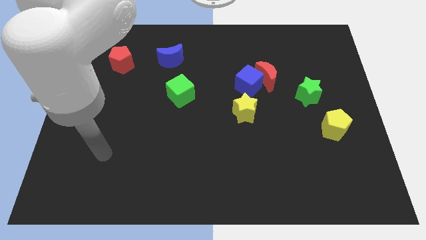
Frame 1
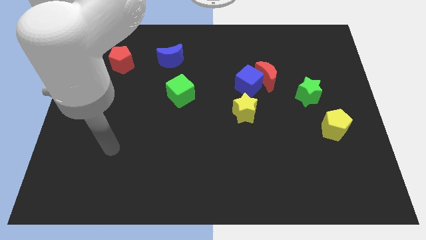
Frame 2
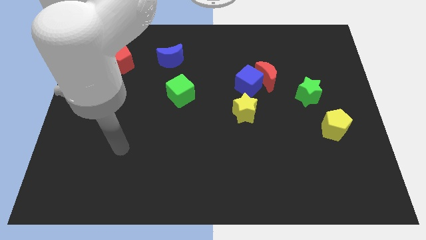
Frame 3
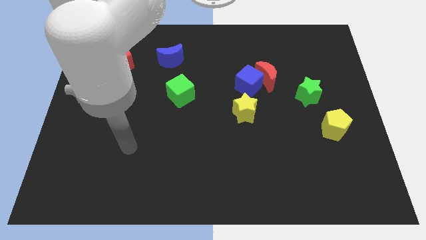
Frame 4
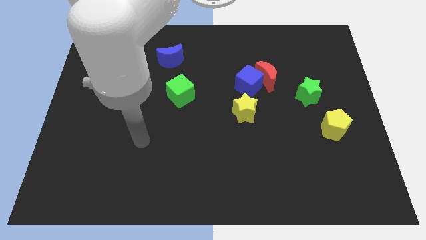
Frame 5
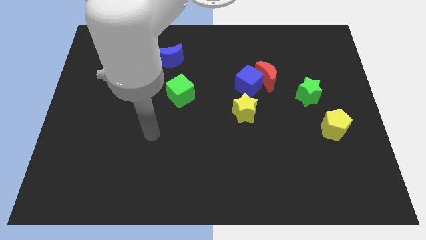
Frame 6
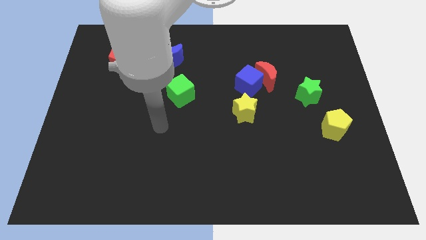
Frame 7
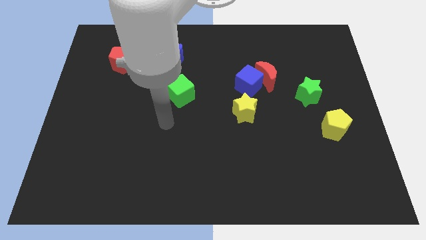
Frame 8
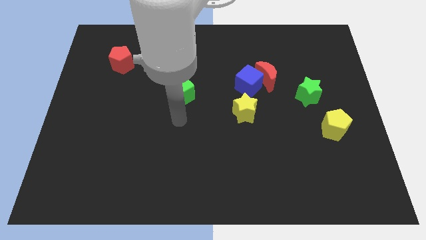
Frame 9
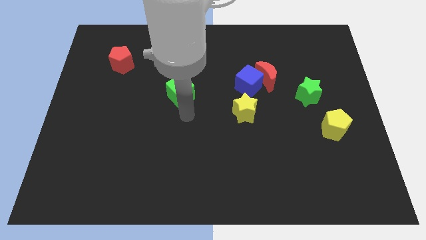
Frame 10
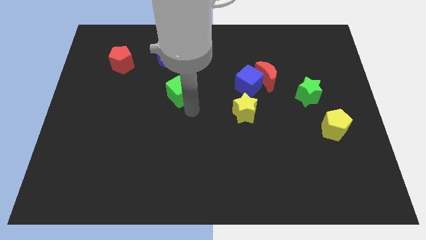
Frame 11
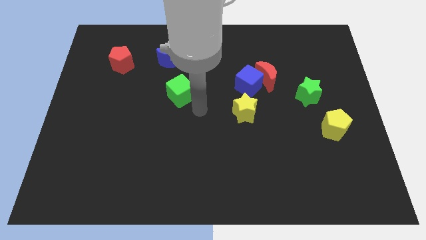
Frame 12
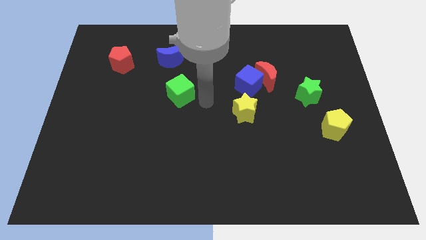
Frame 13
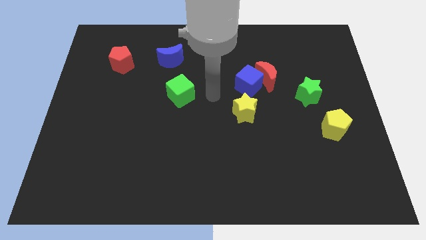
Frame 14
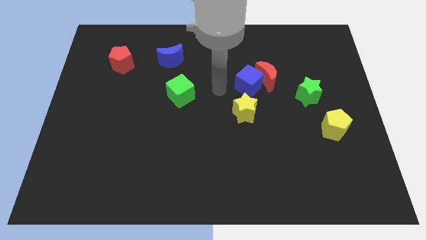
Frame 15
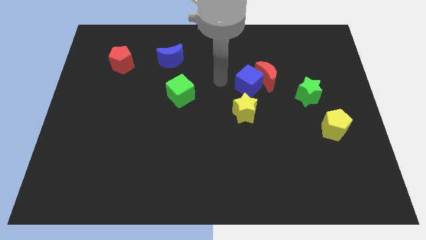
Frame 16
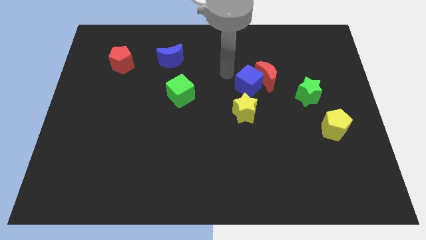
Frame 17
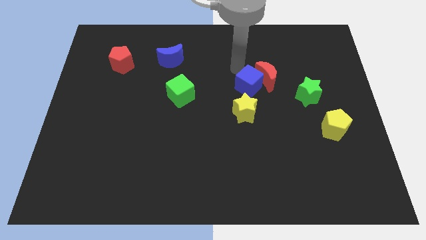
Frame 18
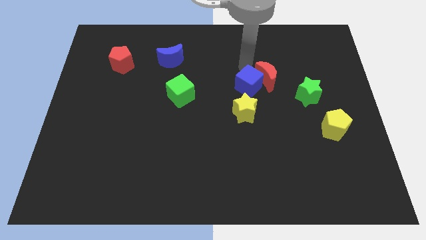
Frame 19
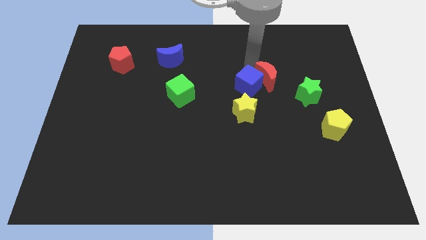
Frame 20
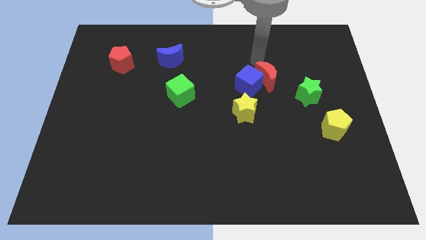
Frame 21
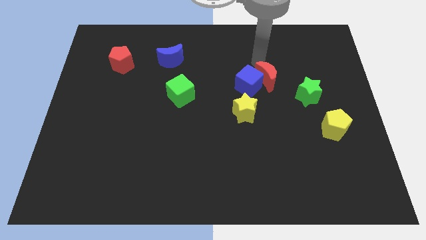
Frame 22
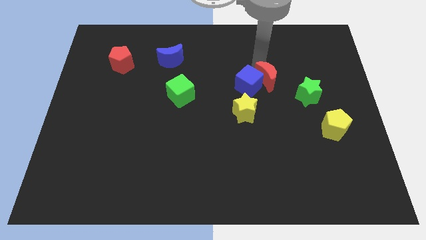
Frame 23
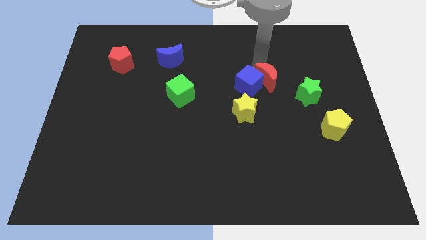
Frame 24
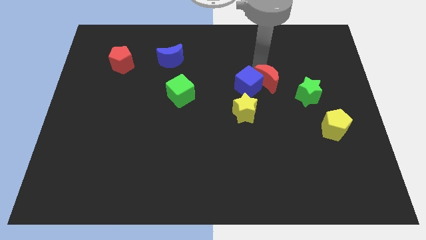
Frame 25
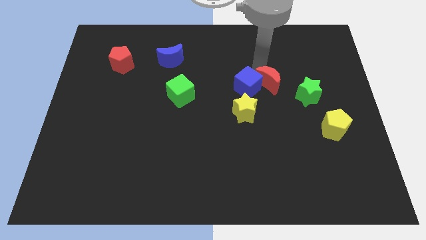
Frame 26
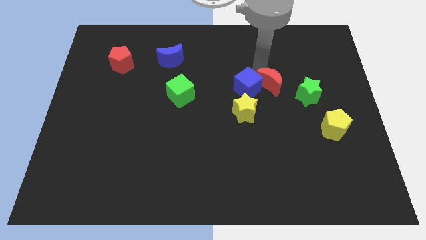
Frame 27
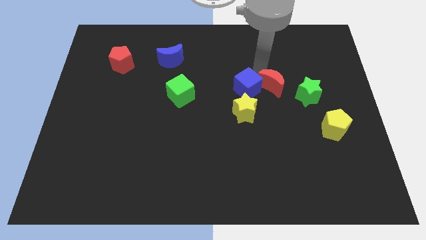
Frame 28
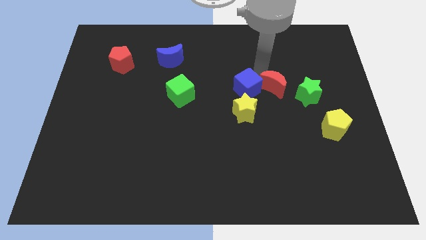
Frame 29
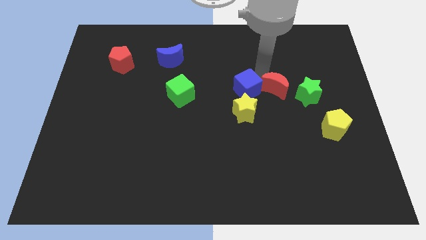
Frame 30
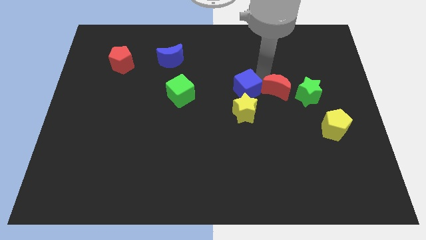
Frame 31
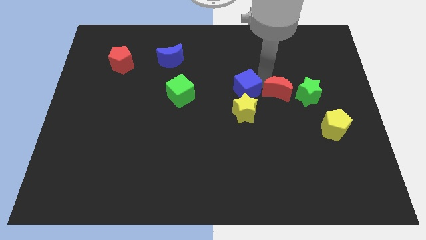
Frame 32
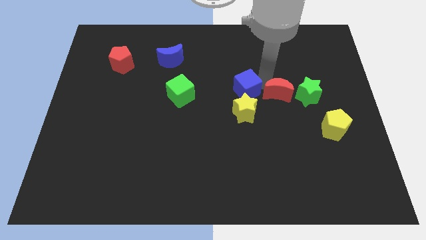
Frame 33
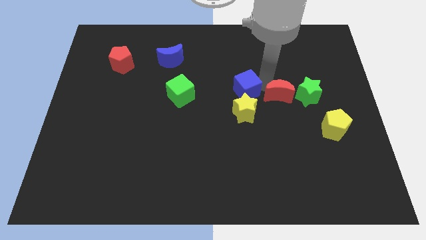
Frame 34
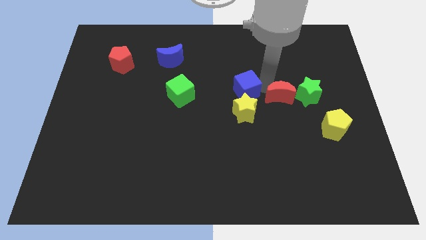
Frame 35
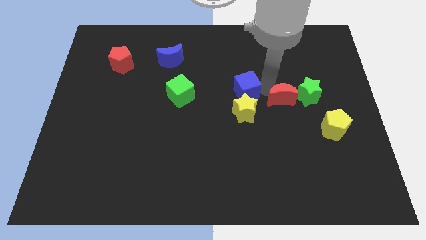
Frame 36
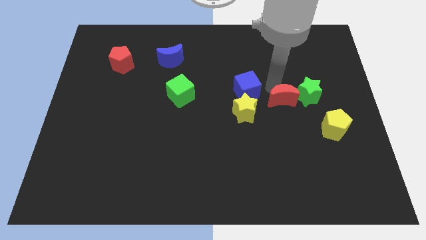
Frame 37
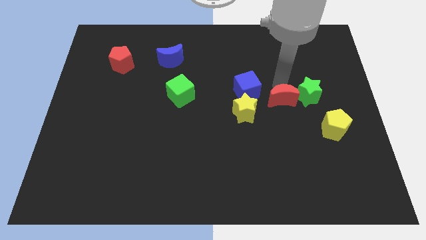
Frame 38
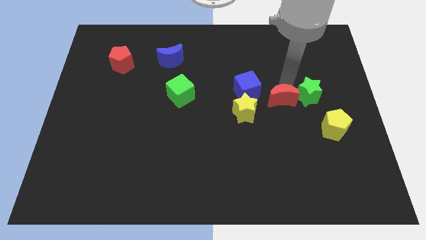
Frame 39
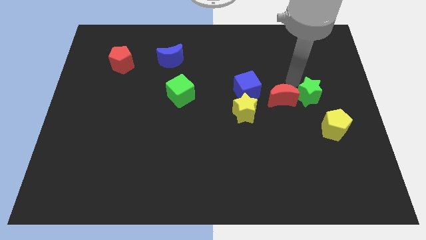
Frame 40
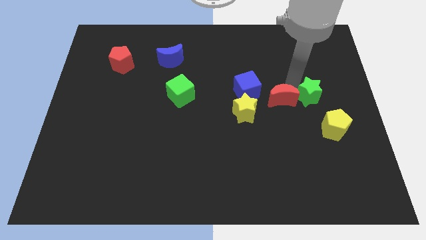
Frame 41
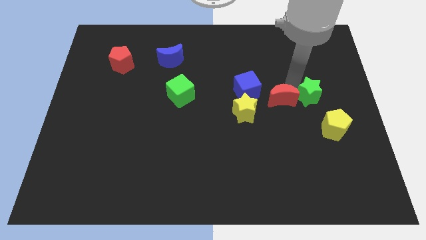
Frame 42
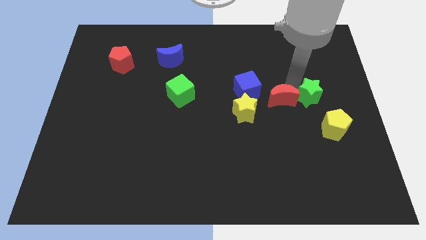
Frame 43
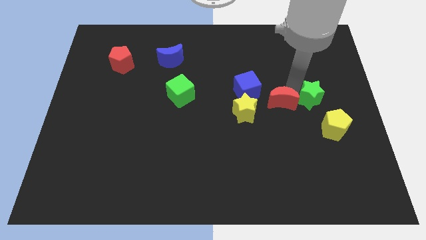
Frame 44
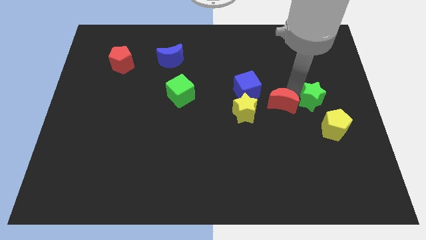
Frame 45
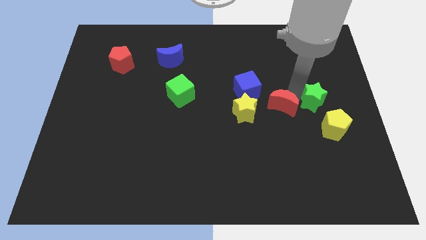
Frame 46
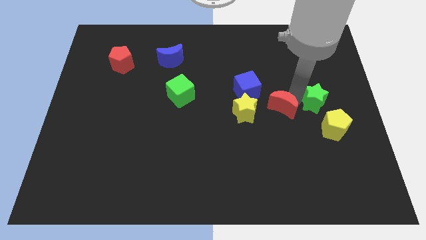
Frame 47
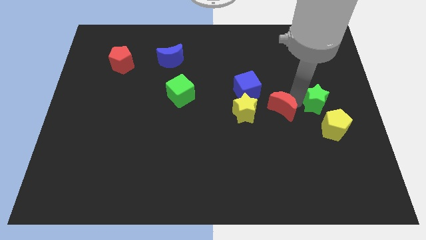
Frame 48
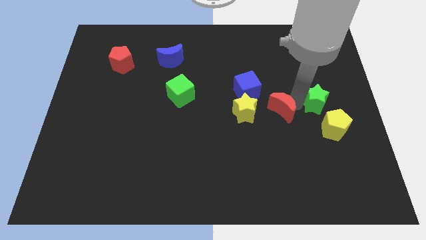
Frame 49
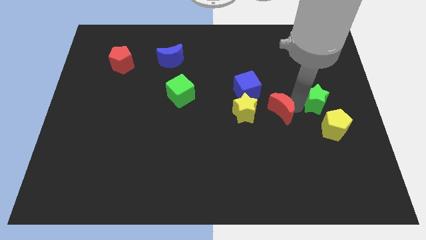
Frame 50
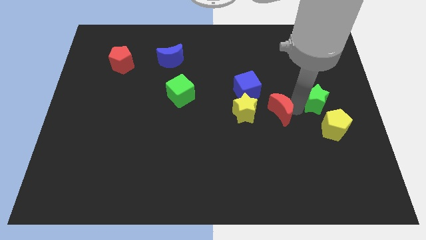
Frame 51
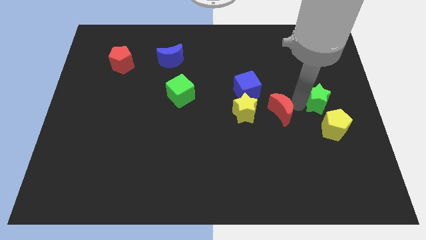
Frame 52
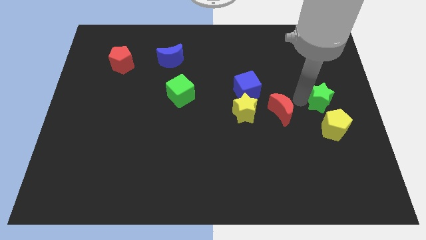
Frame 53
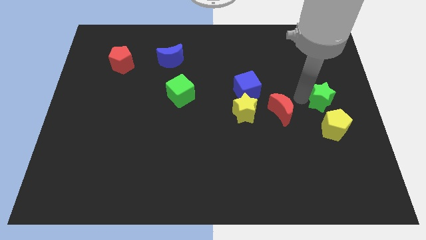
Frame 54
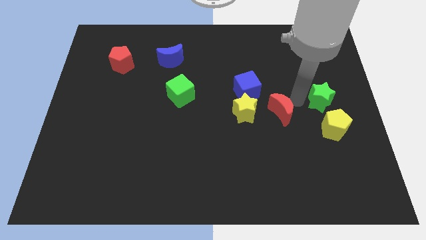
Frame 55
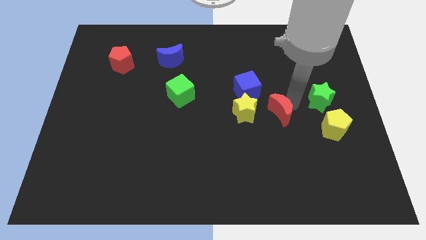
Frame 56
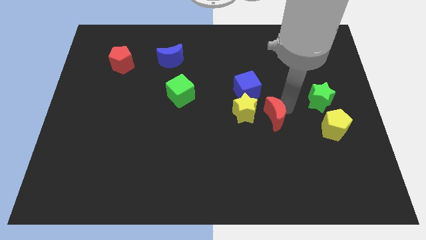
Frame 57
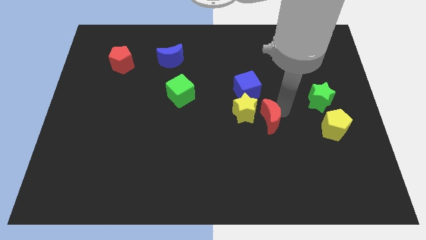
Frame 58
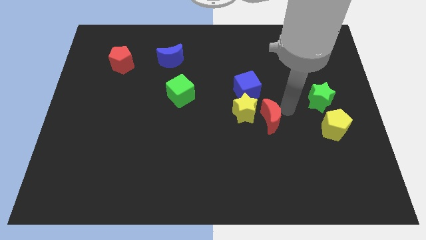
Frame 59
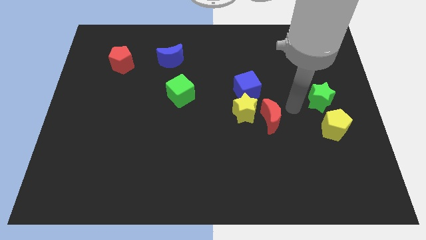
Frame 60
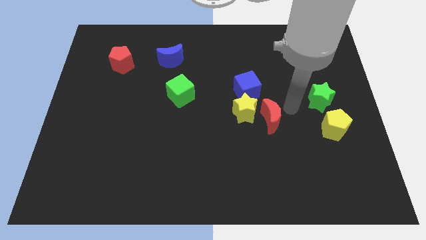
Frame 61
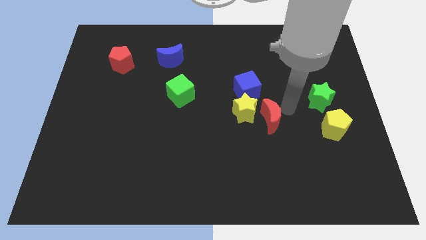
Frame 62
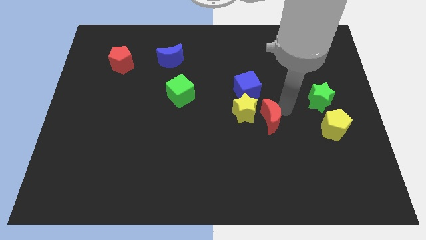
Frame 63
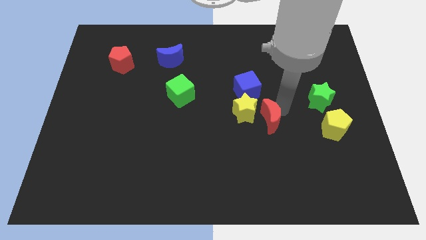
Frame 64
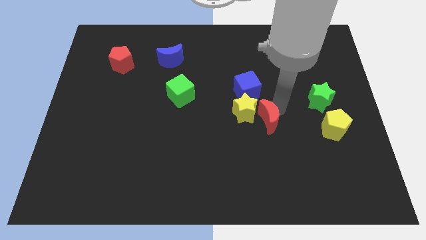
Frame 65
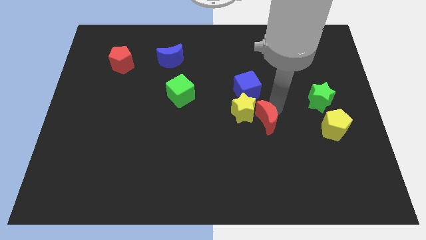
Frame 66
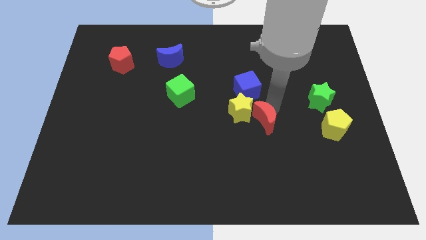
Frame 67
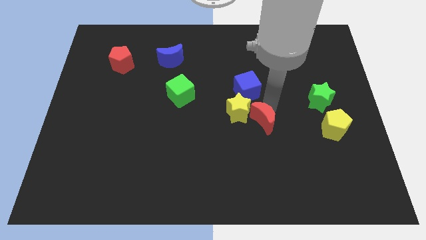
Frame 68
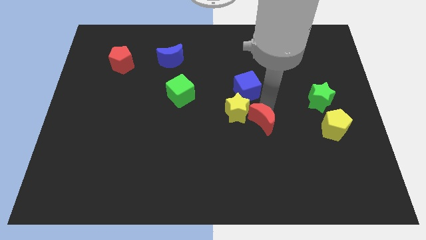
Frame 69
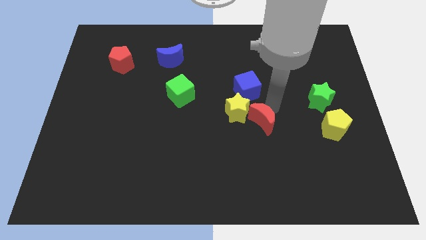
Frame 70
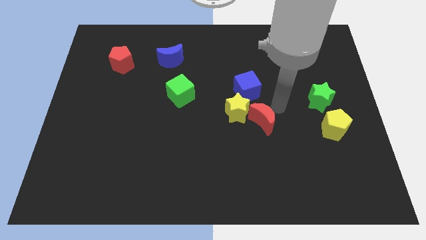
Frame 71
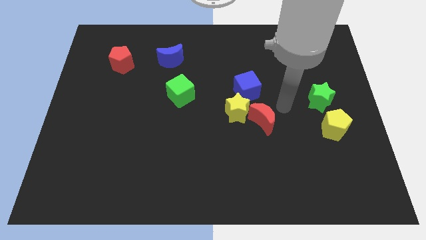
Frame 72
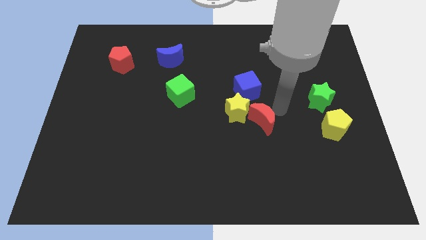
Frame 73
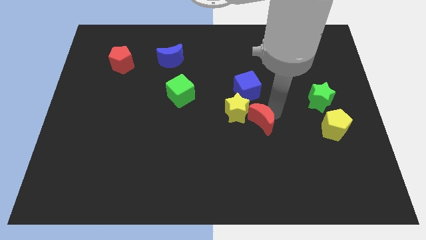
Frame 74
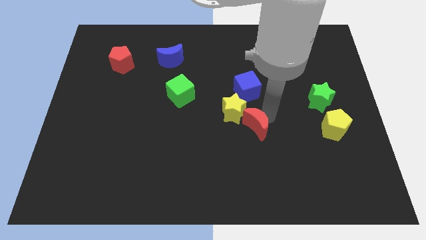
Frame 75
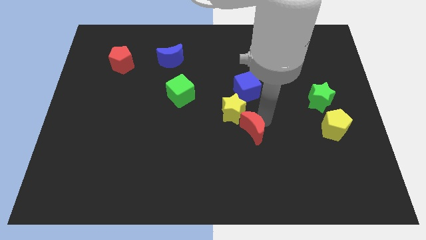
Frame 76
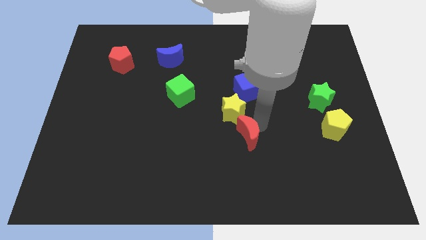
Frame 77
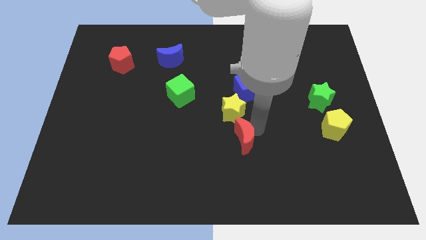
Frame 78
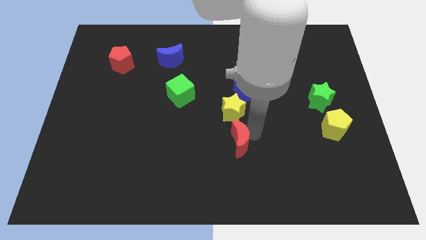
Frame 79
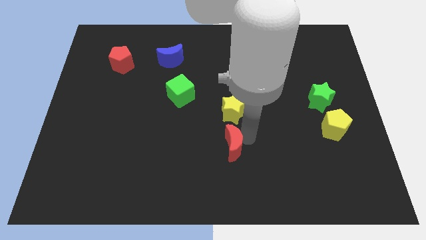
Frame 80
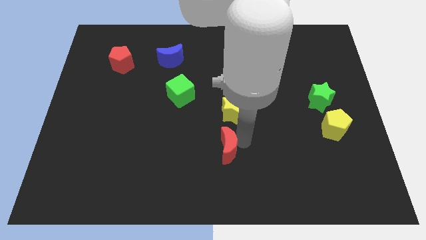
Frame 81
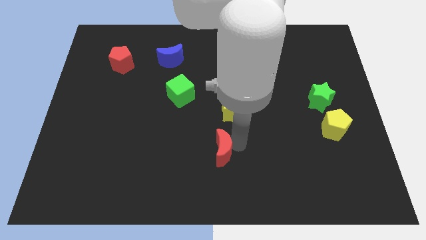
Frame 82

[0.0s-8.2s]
push the red moon downwards and to the left diagonally

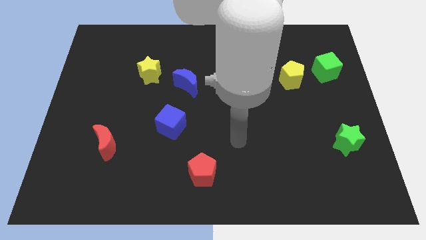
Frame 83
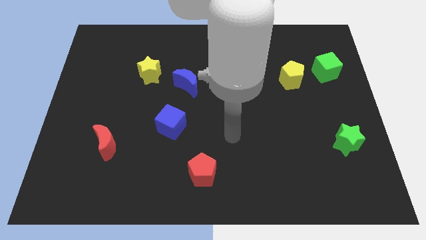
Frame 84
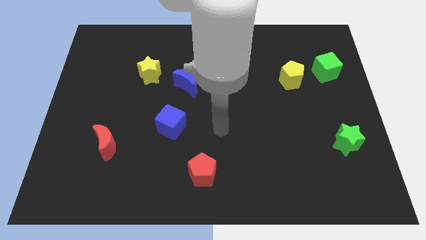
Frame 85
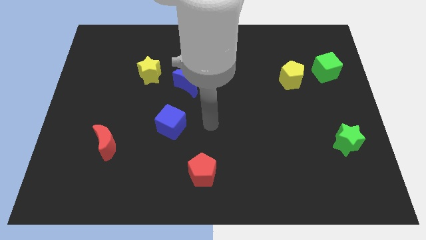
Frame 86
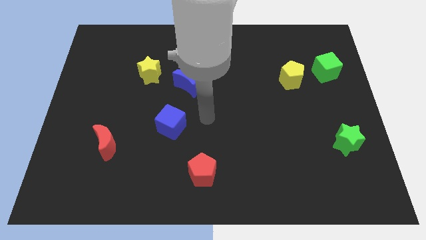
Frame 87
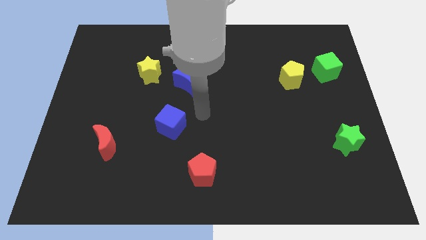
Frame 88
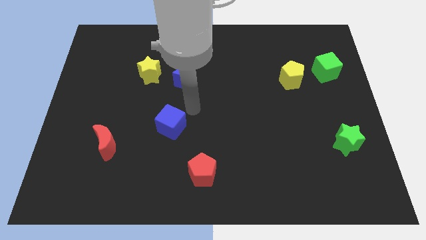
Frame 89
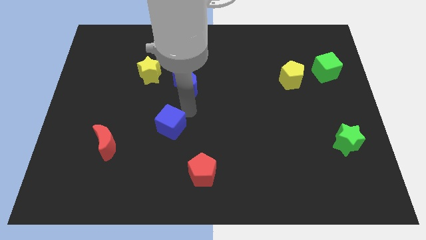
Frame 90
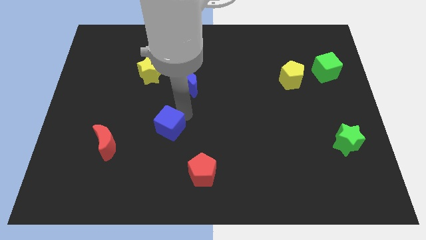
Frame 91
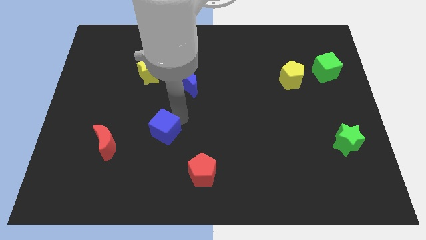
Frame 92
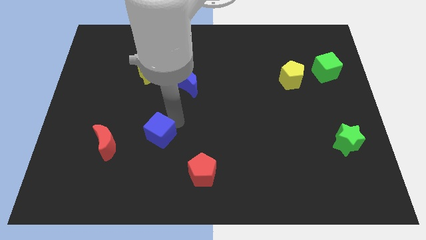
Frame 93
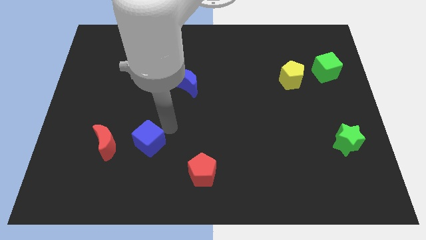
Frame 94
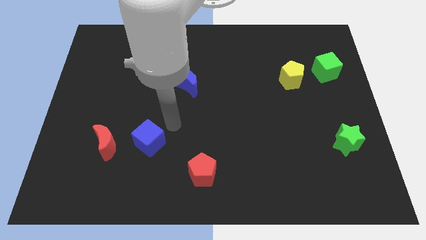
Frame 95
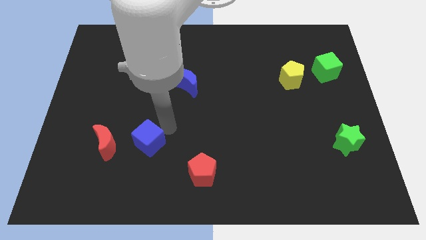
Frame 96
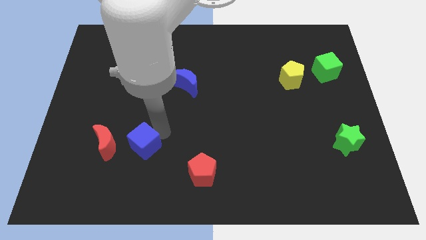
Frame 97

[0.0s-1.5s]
slightly push the blue cube down and then left
